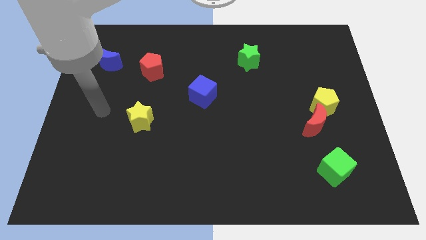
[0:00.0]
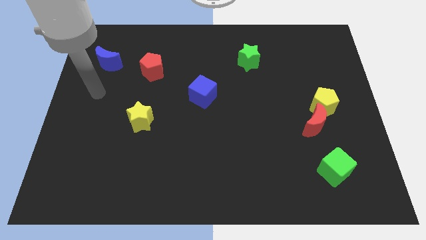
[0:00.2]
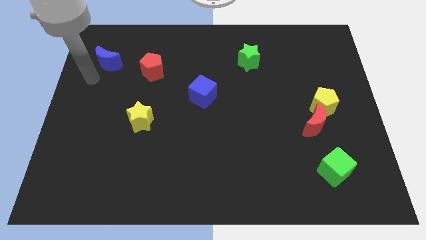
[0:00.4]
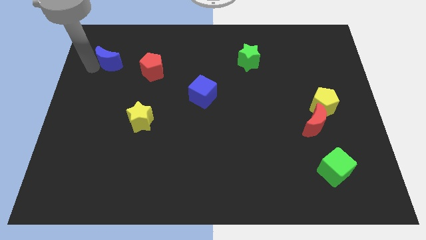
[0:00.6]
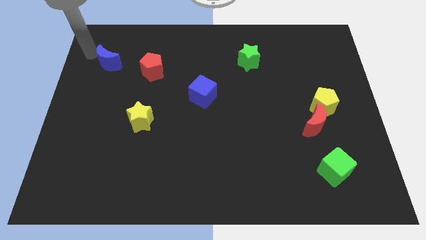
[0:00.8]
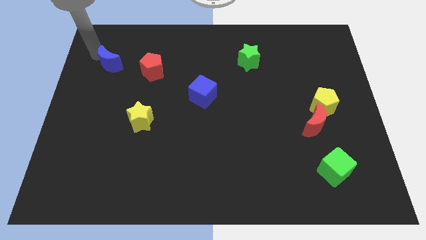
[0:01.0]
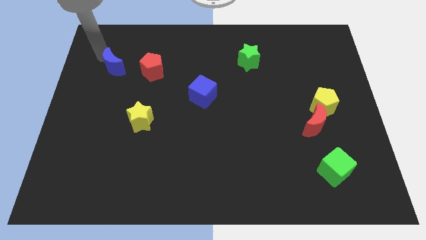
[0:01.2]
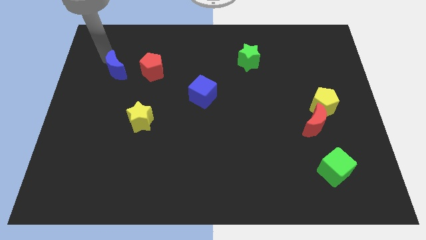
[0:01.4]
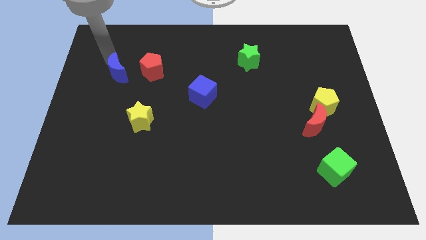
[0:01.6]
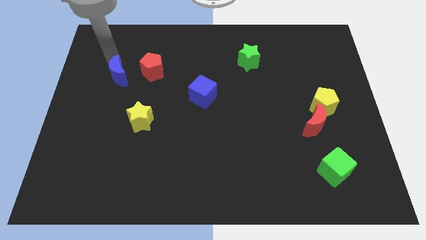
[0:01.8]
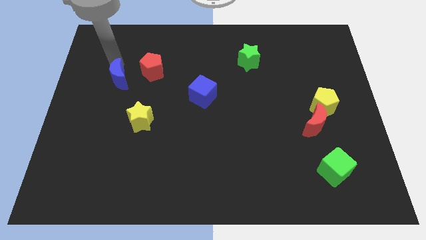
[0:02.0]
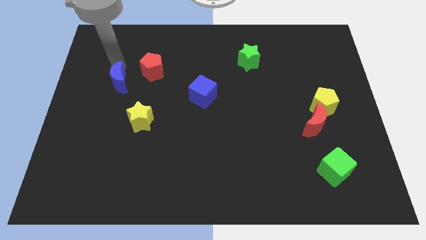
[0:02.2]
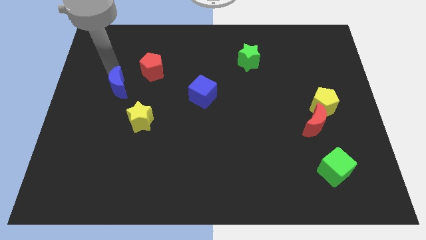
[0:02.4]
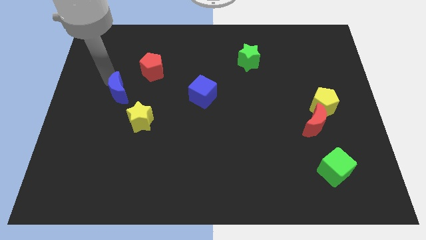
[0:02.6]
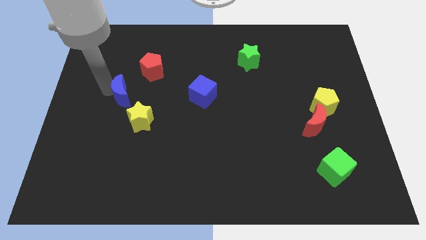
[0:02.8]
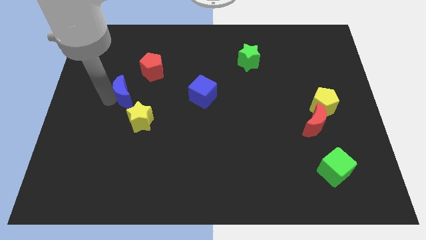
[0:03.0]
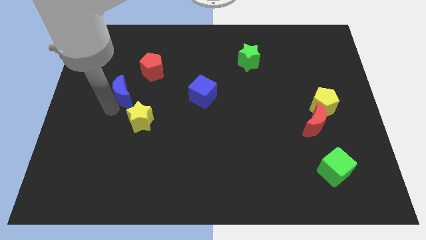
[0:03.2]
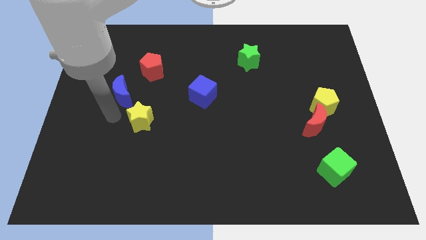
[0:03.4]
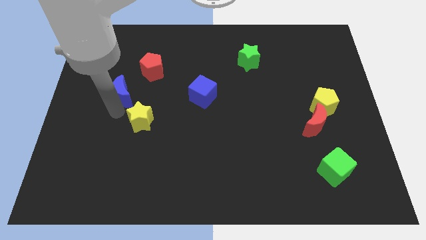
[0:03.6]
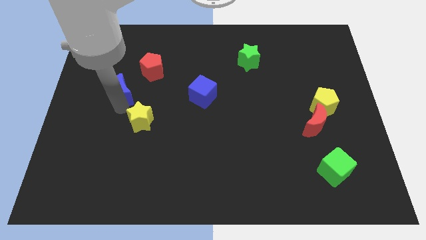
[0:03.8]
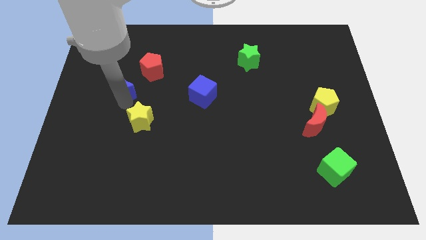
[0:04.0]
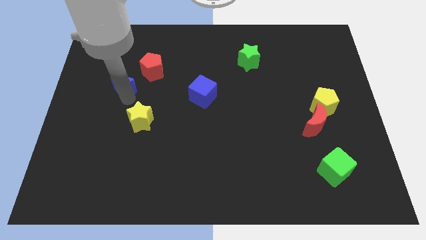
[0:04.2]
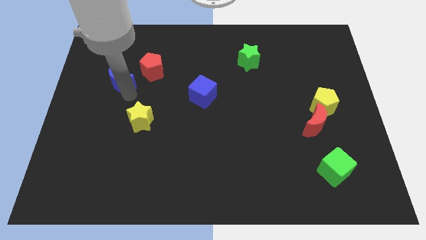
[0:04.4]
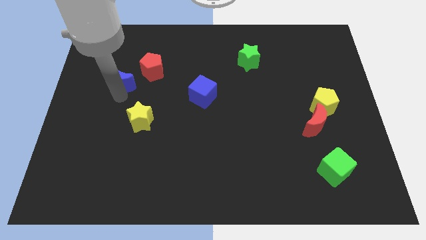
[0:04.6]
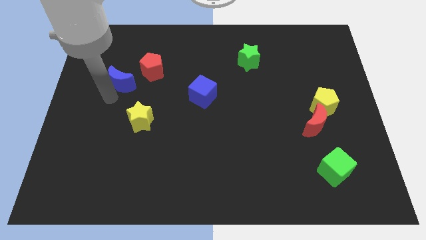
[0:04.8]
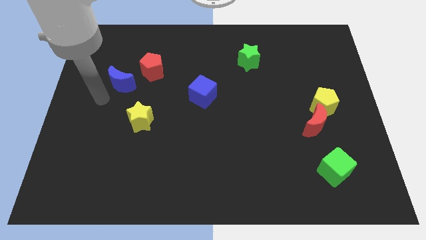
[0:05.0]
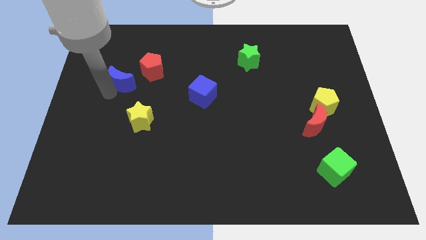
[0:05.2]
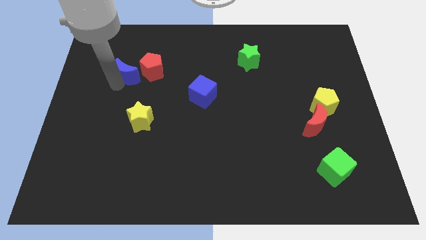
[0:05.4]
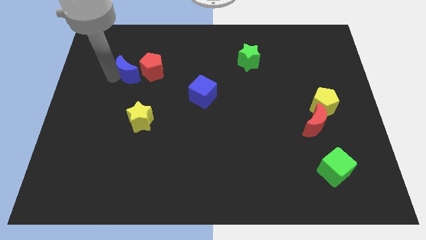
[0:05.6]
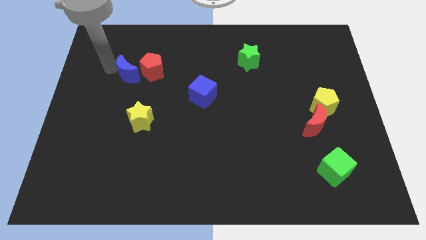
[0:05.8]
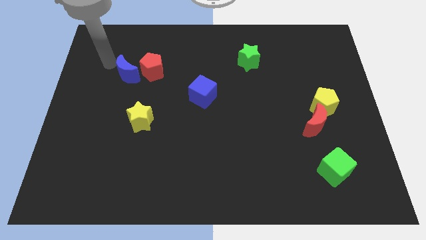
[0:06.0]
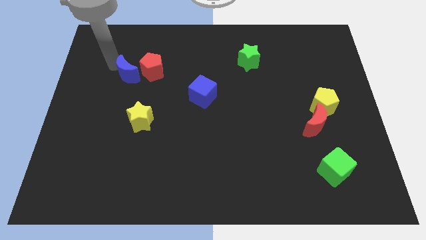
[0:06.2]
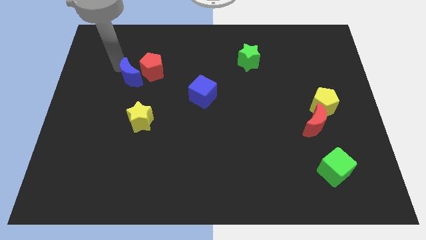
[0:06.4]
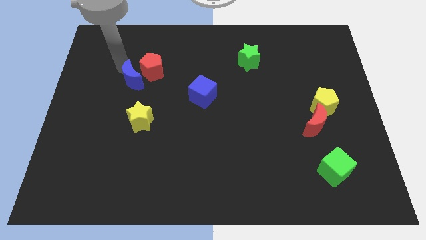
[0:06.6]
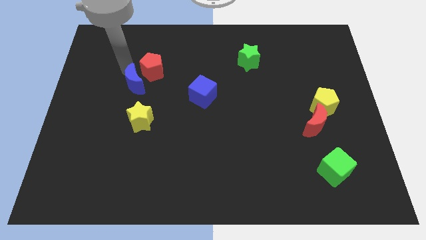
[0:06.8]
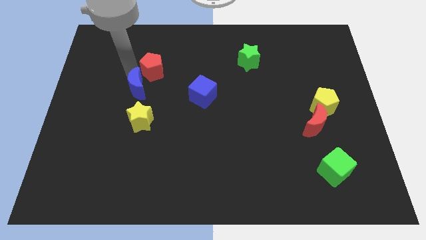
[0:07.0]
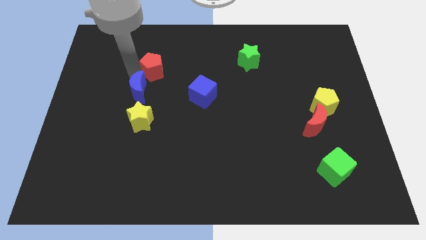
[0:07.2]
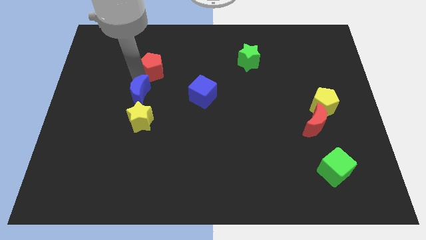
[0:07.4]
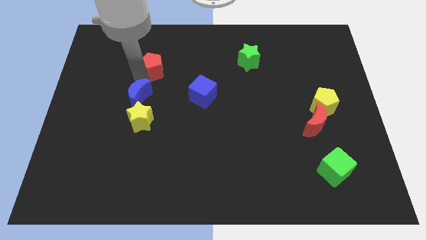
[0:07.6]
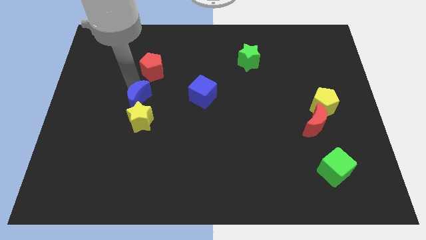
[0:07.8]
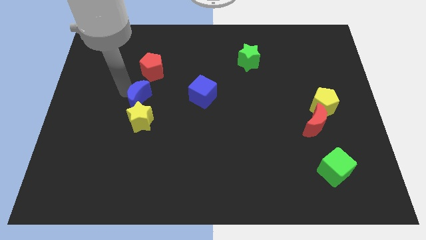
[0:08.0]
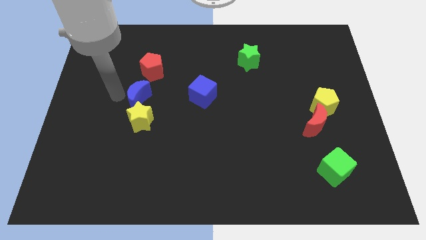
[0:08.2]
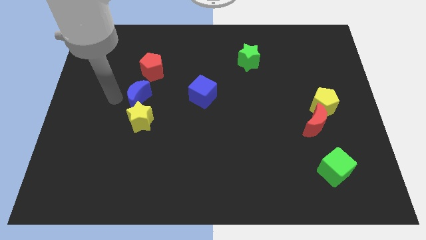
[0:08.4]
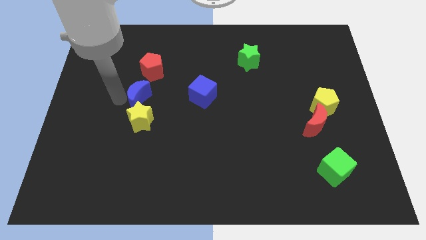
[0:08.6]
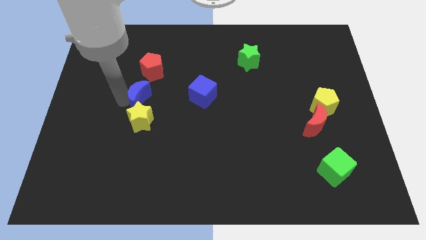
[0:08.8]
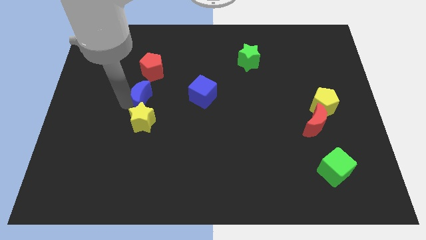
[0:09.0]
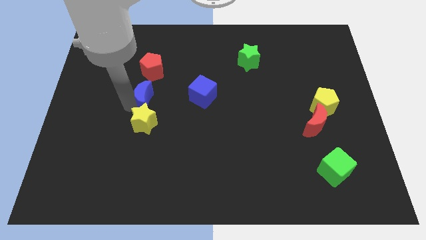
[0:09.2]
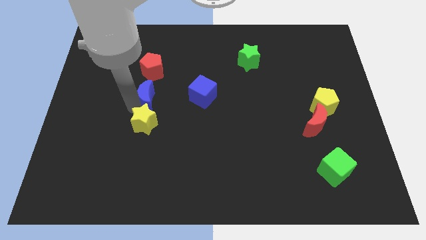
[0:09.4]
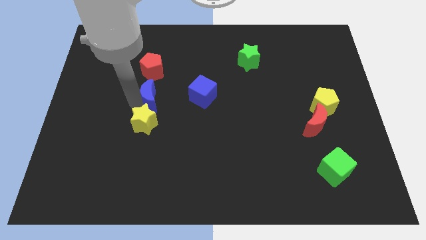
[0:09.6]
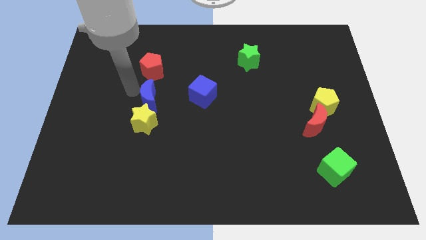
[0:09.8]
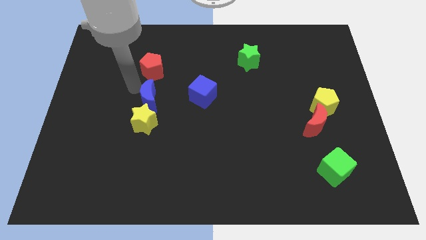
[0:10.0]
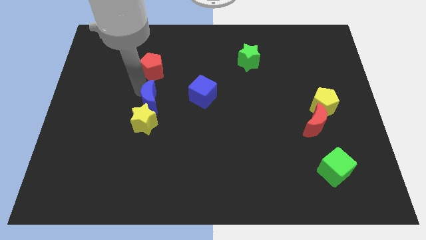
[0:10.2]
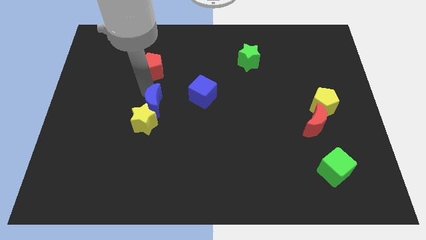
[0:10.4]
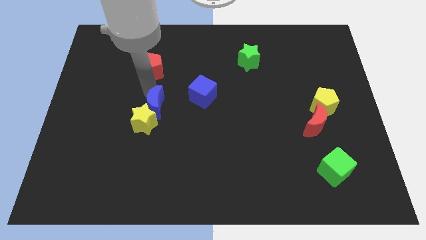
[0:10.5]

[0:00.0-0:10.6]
move the blue moon down and to the right diagonally

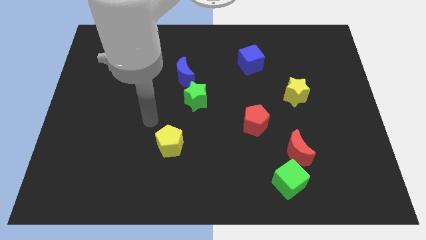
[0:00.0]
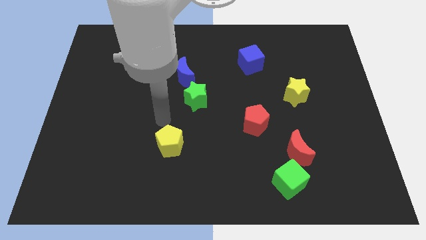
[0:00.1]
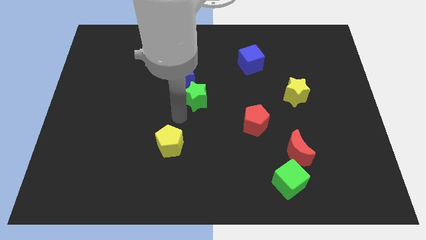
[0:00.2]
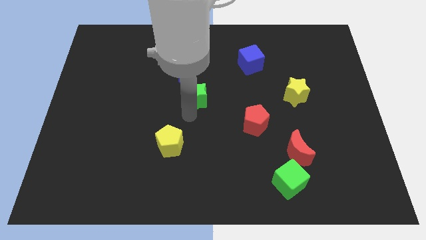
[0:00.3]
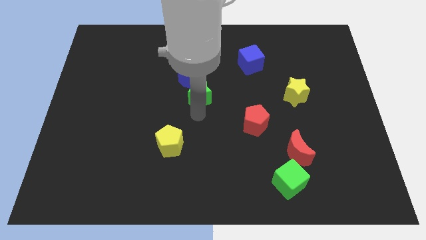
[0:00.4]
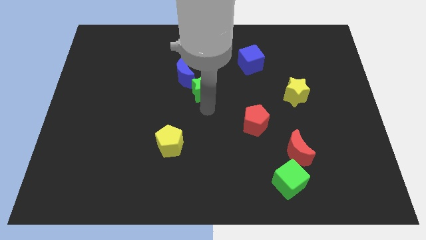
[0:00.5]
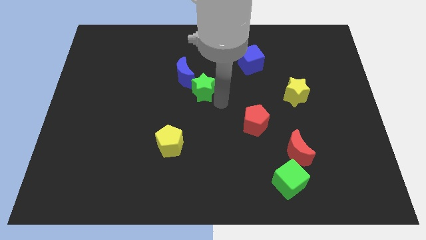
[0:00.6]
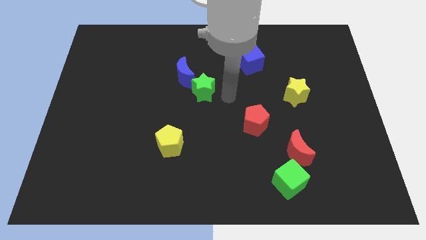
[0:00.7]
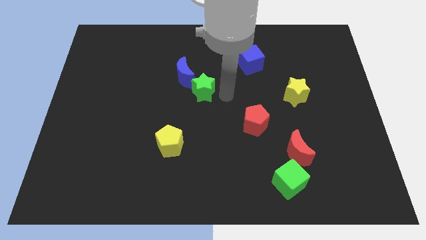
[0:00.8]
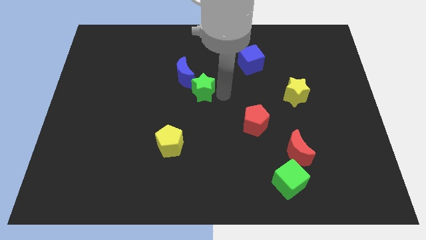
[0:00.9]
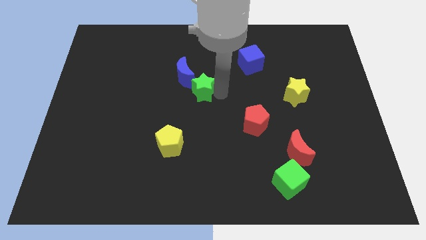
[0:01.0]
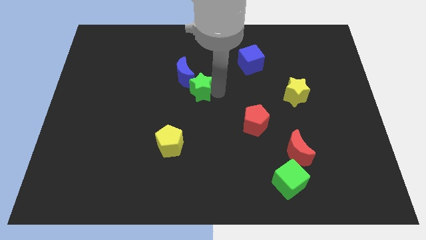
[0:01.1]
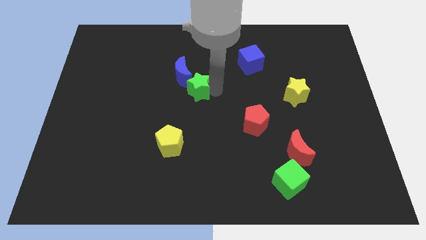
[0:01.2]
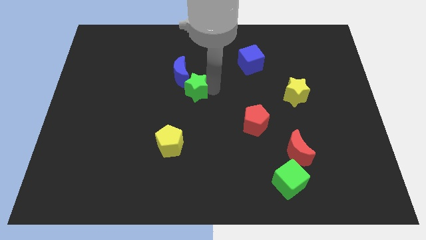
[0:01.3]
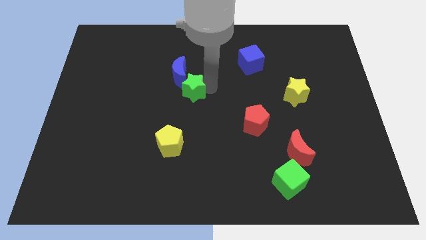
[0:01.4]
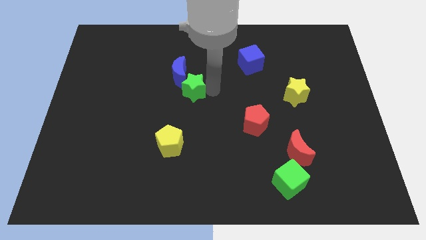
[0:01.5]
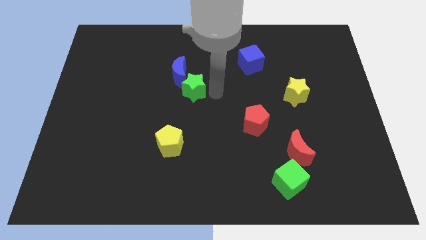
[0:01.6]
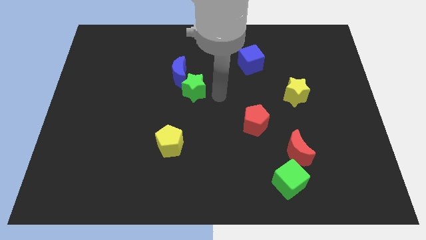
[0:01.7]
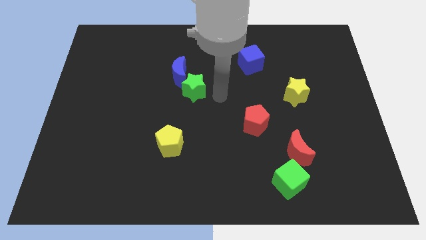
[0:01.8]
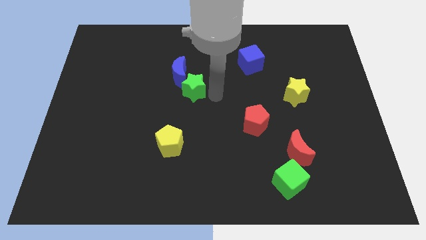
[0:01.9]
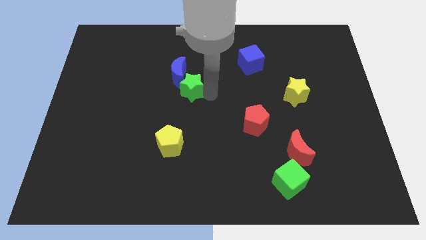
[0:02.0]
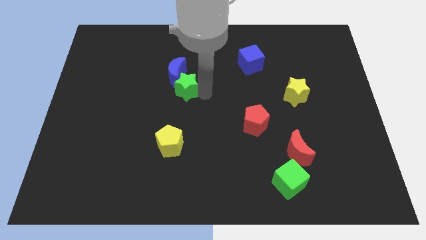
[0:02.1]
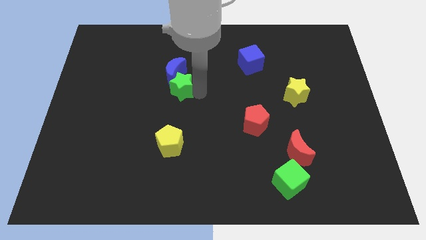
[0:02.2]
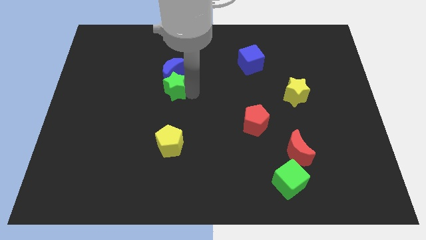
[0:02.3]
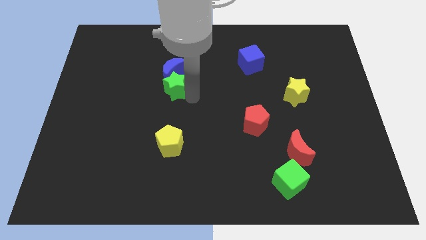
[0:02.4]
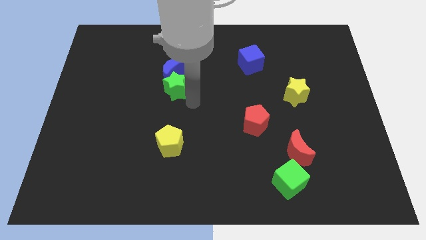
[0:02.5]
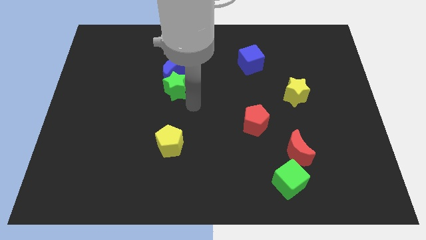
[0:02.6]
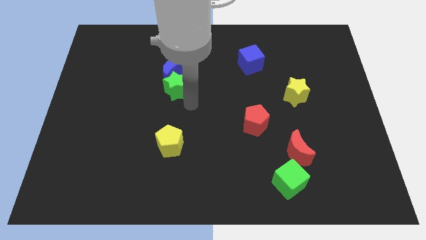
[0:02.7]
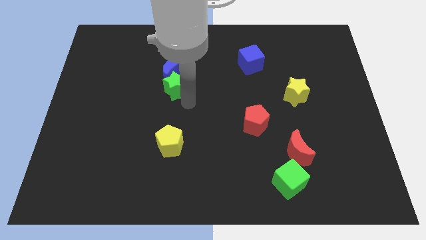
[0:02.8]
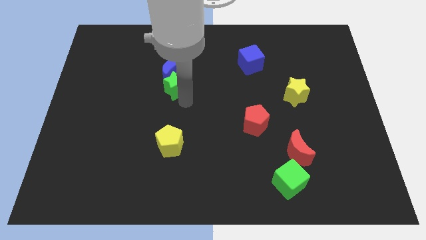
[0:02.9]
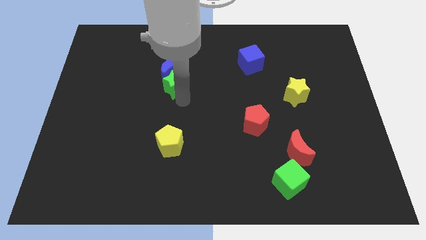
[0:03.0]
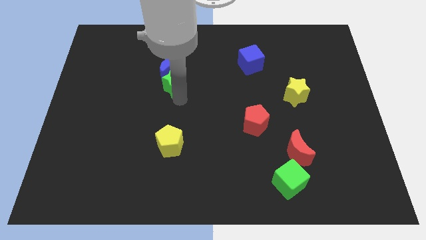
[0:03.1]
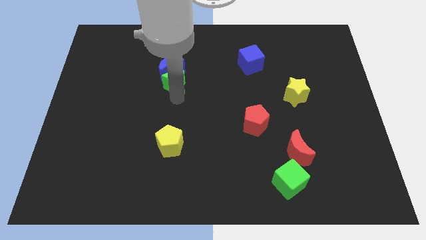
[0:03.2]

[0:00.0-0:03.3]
slide the green star up and to the left diagonally slightly
